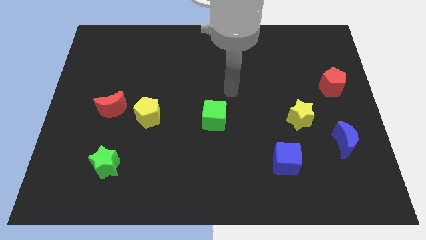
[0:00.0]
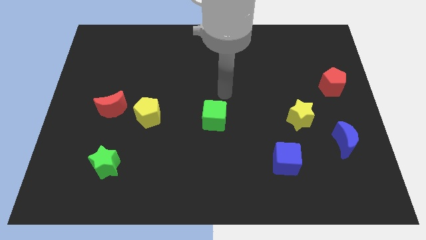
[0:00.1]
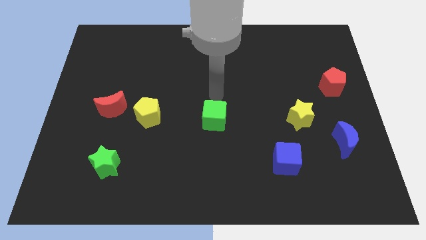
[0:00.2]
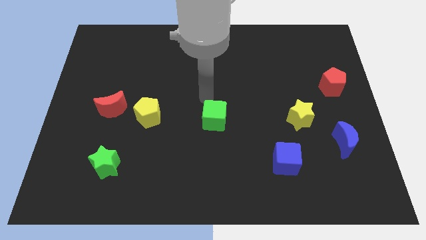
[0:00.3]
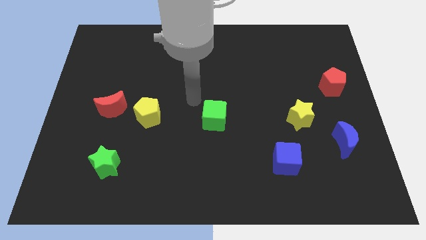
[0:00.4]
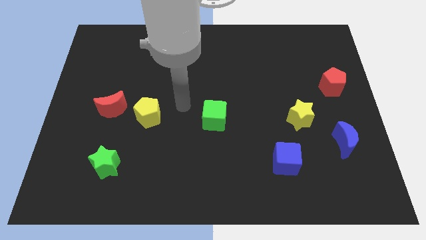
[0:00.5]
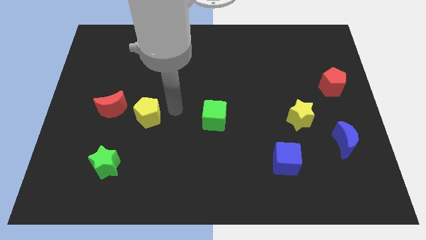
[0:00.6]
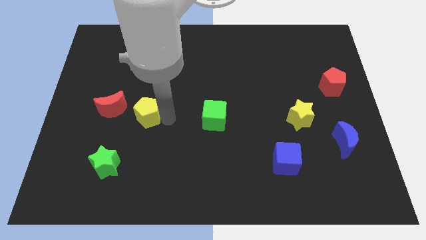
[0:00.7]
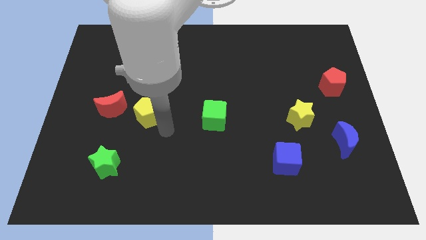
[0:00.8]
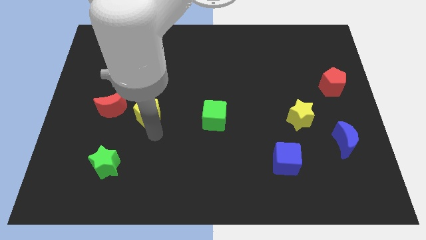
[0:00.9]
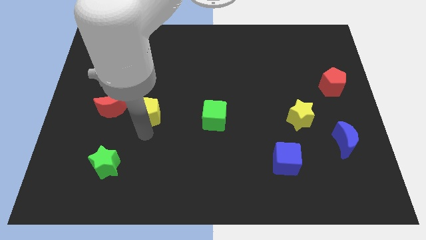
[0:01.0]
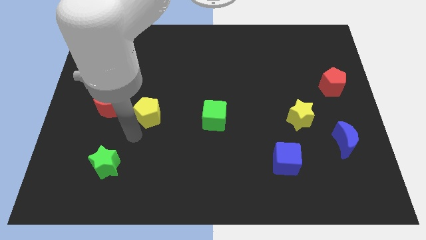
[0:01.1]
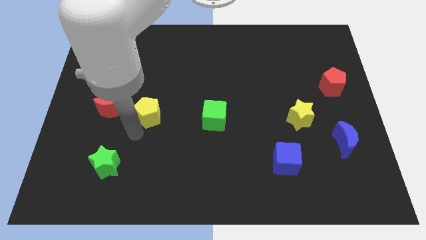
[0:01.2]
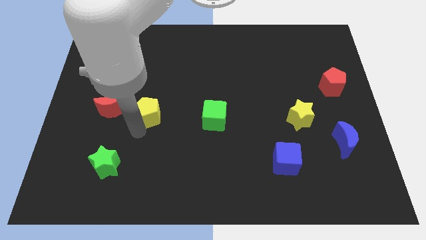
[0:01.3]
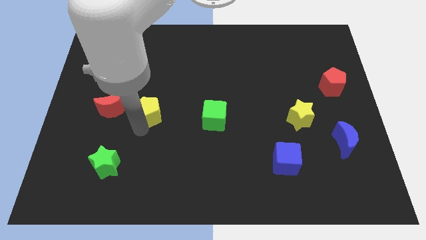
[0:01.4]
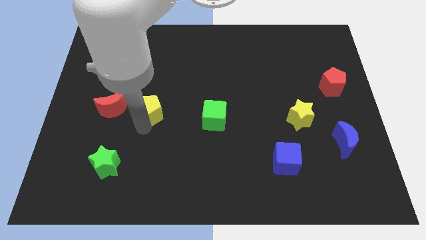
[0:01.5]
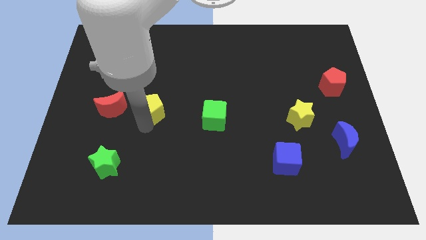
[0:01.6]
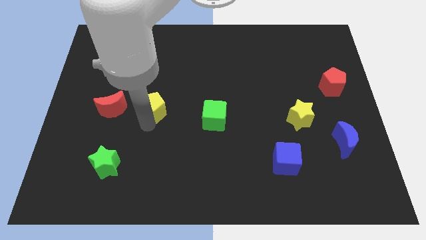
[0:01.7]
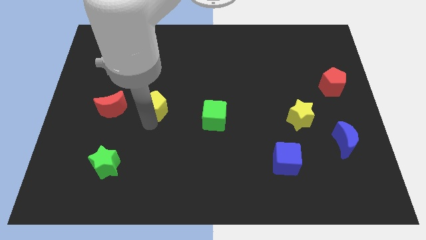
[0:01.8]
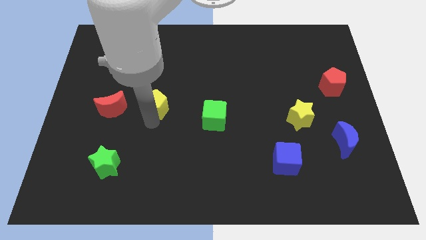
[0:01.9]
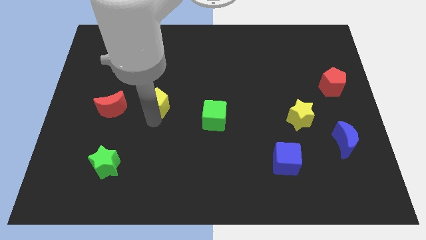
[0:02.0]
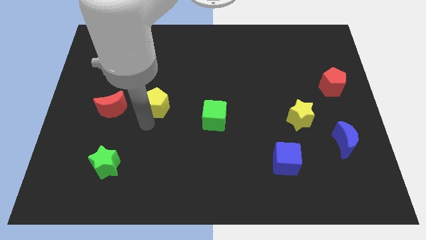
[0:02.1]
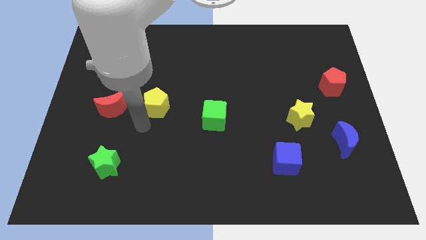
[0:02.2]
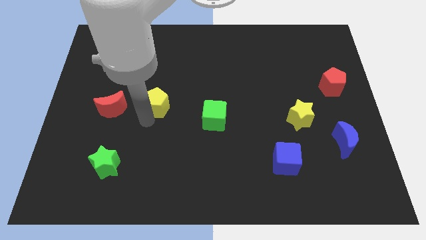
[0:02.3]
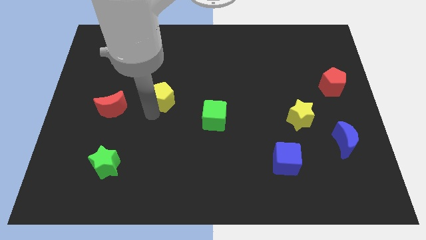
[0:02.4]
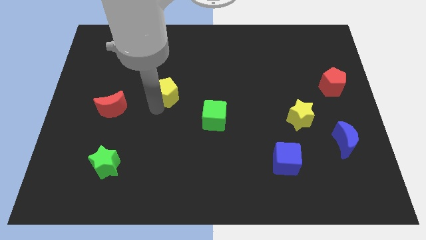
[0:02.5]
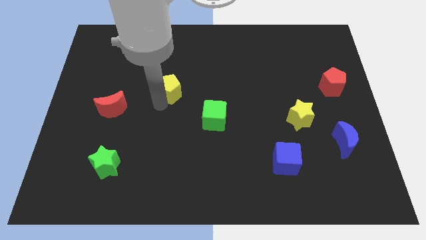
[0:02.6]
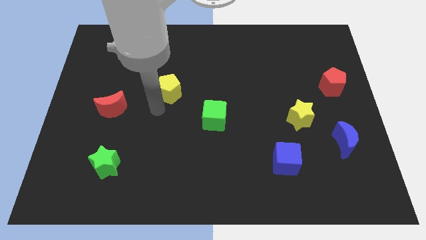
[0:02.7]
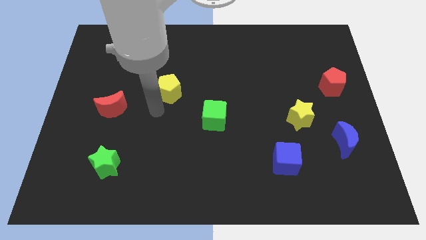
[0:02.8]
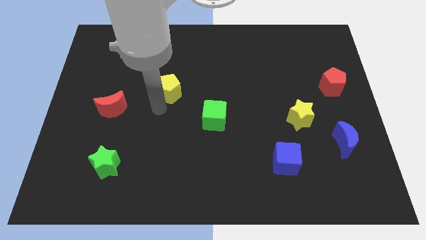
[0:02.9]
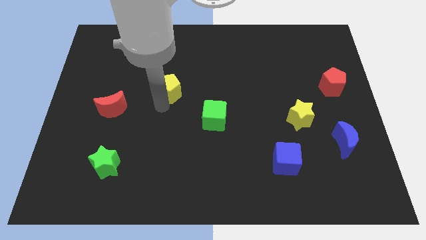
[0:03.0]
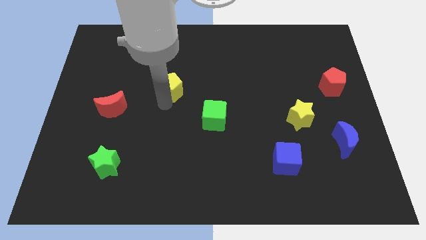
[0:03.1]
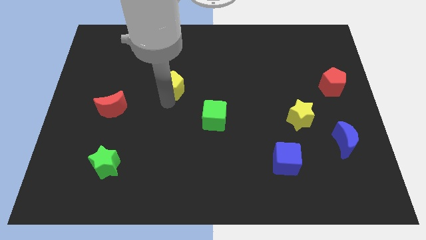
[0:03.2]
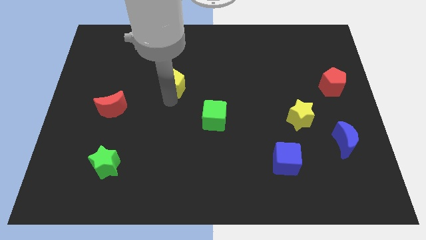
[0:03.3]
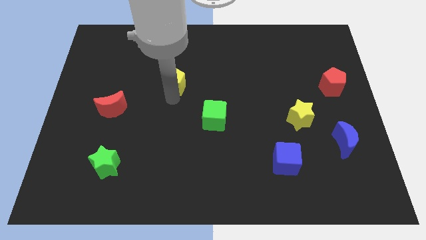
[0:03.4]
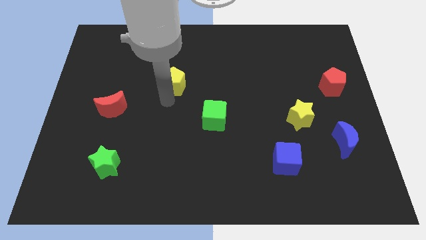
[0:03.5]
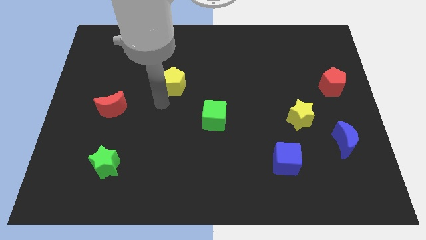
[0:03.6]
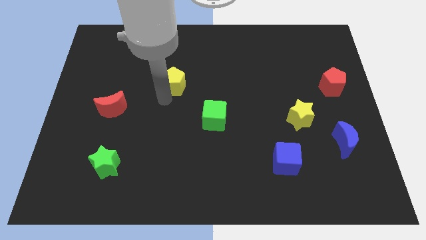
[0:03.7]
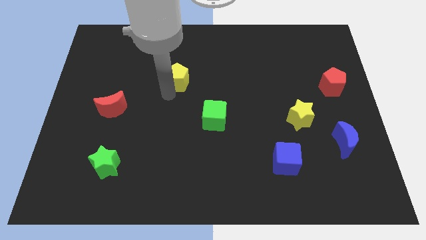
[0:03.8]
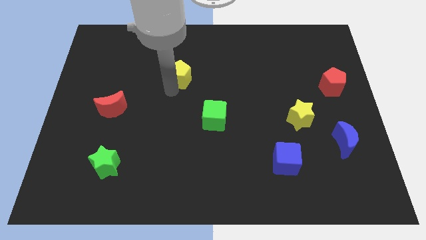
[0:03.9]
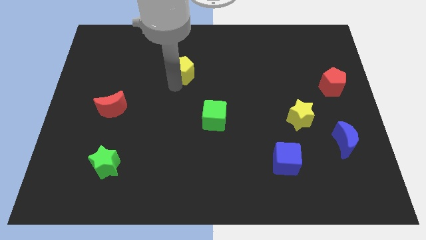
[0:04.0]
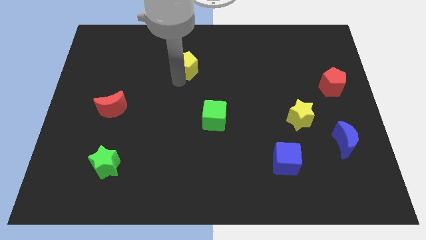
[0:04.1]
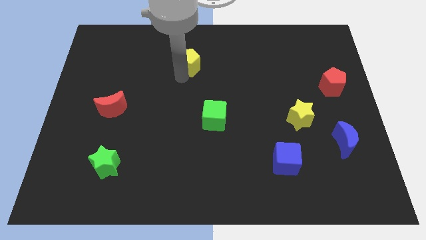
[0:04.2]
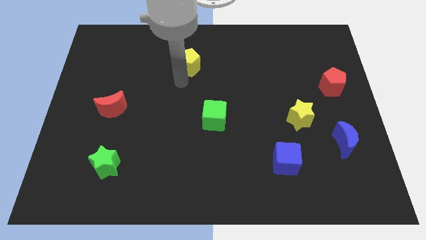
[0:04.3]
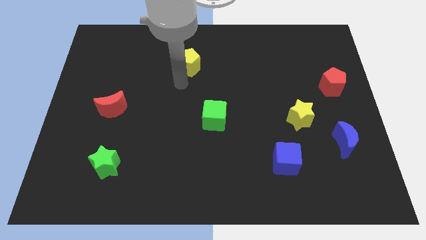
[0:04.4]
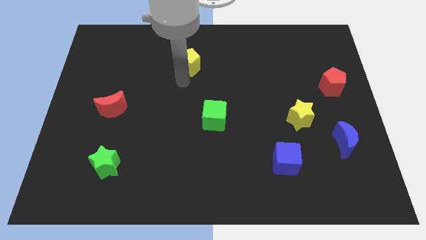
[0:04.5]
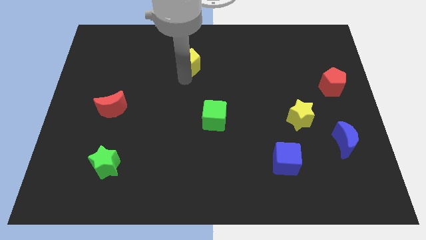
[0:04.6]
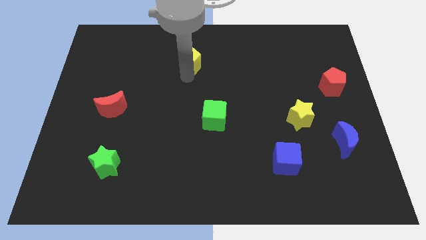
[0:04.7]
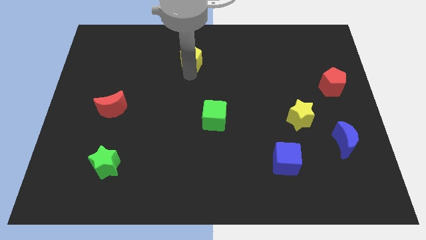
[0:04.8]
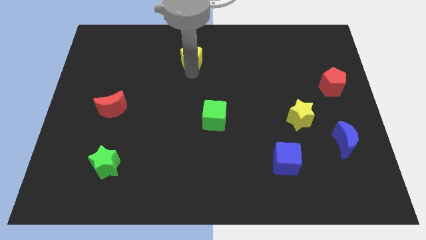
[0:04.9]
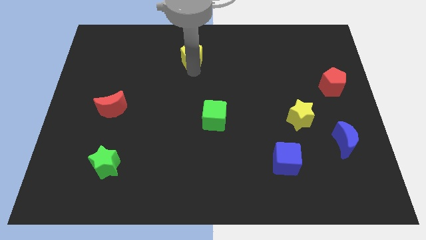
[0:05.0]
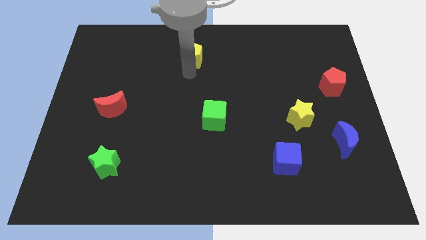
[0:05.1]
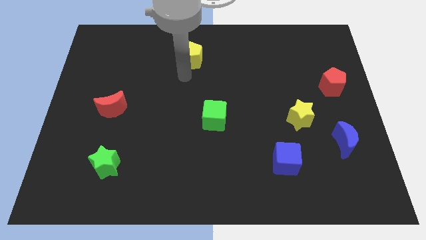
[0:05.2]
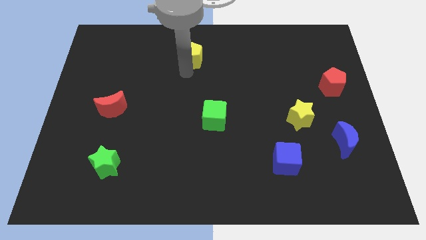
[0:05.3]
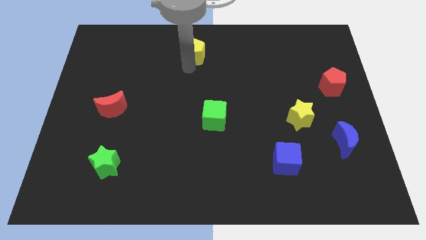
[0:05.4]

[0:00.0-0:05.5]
slide the yellow pentagon to the top
